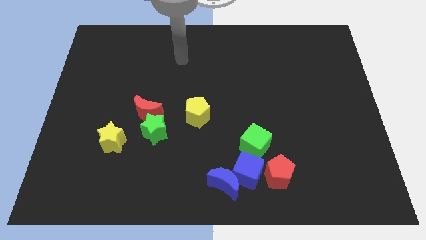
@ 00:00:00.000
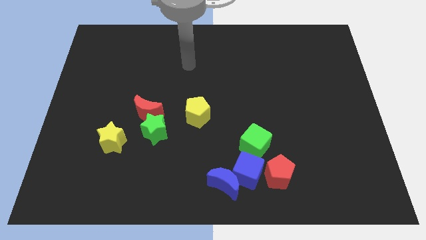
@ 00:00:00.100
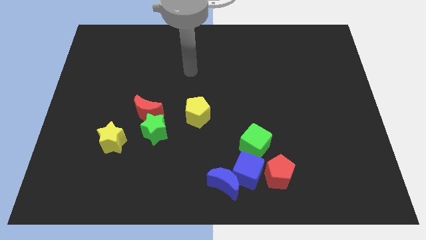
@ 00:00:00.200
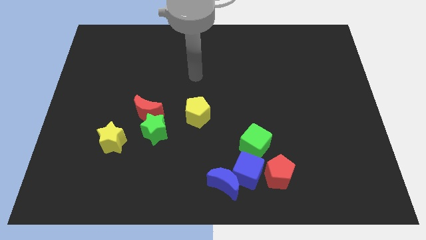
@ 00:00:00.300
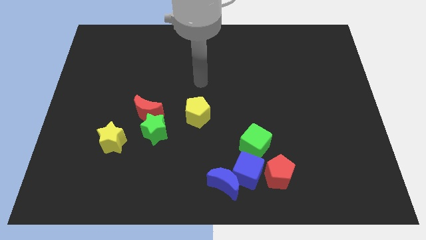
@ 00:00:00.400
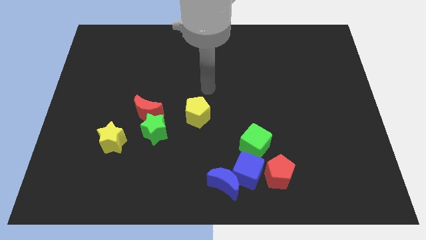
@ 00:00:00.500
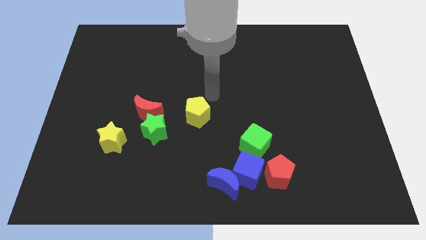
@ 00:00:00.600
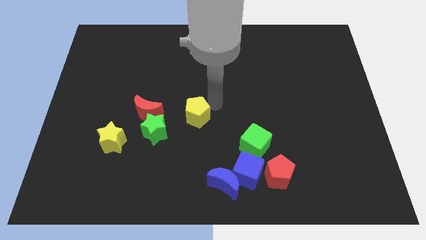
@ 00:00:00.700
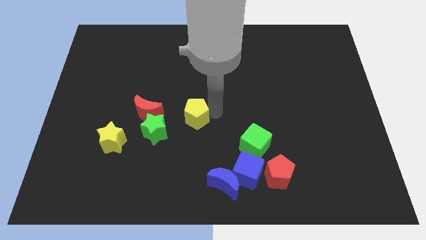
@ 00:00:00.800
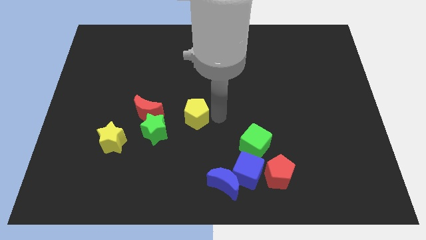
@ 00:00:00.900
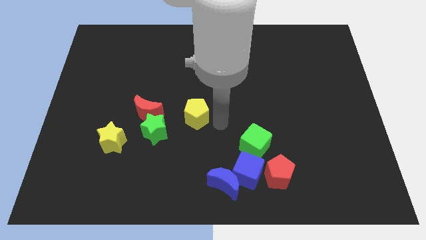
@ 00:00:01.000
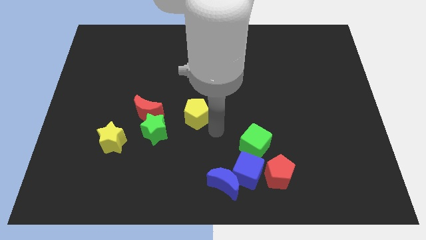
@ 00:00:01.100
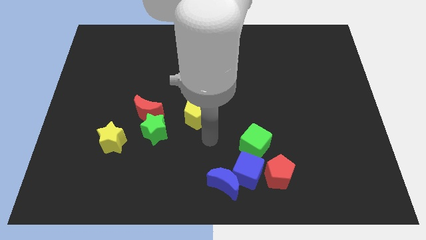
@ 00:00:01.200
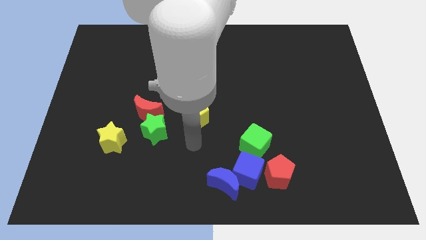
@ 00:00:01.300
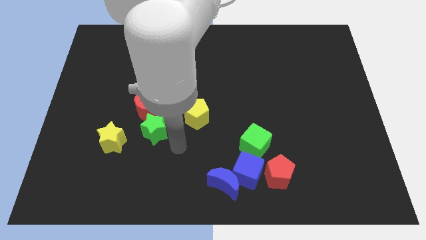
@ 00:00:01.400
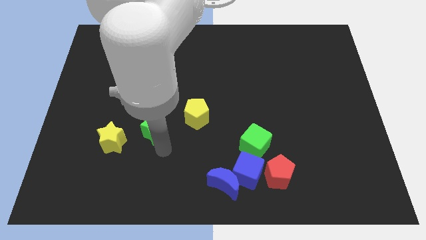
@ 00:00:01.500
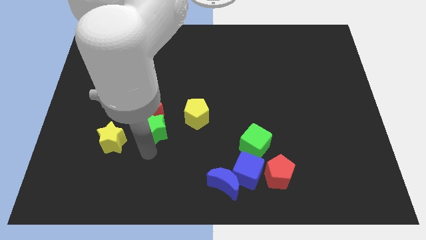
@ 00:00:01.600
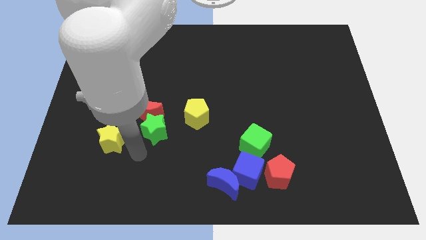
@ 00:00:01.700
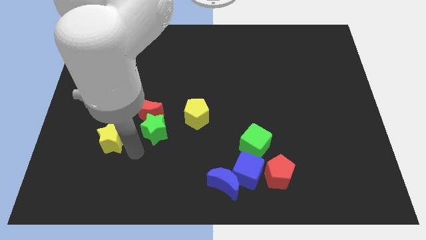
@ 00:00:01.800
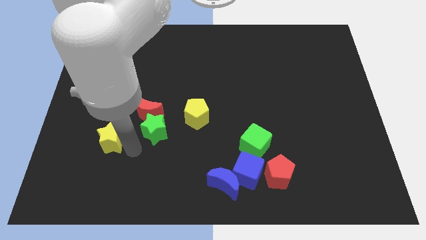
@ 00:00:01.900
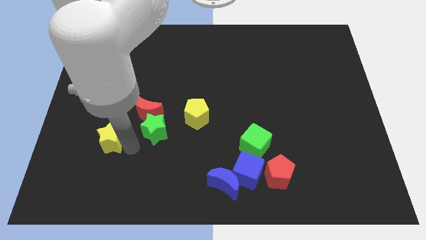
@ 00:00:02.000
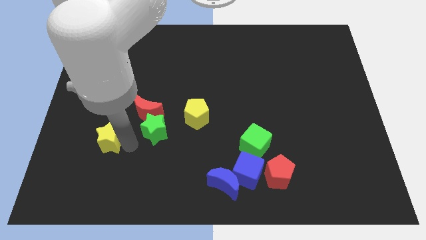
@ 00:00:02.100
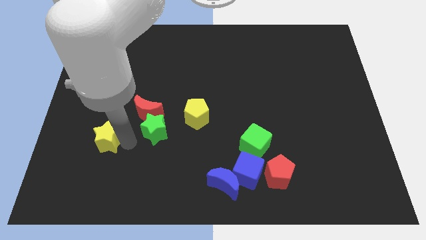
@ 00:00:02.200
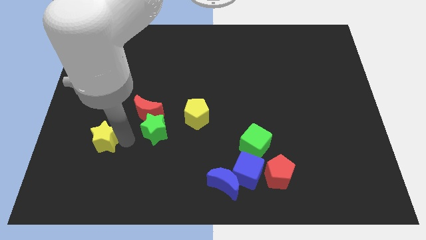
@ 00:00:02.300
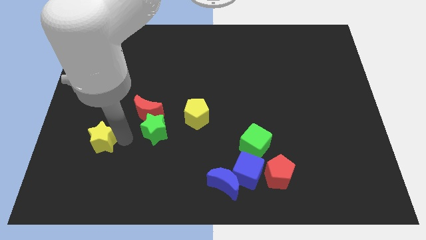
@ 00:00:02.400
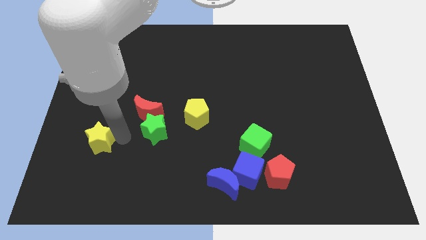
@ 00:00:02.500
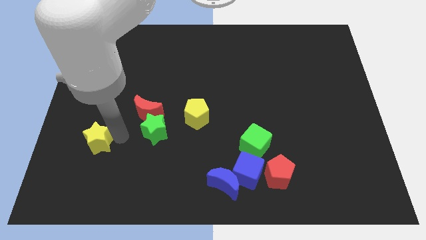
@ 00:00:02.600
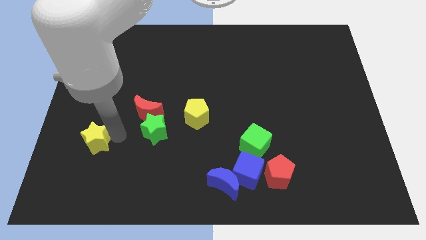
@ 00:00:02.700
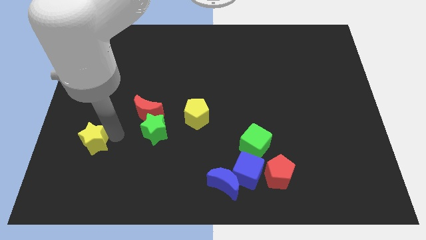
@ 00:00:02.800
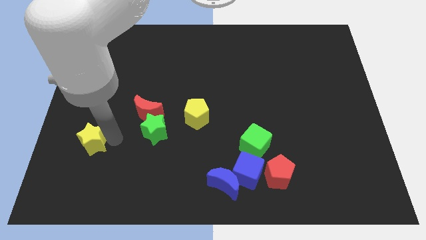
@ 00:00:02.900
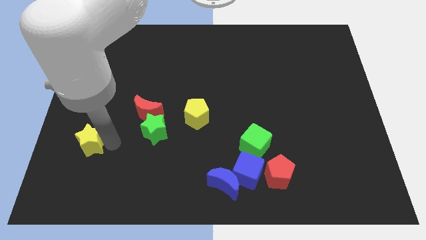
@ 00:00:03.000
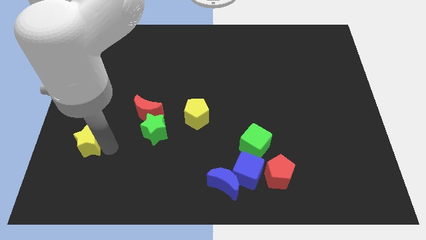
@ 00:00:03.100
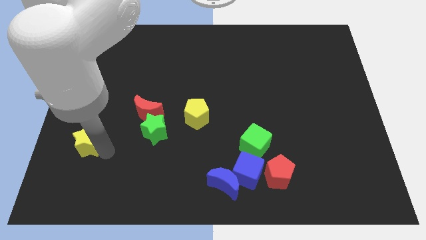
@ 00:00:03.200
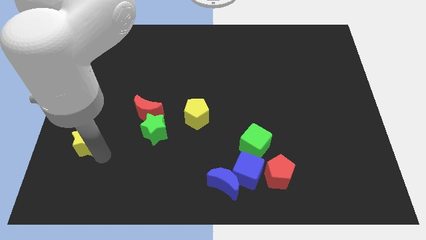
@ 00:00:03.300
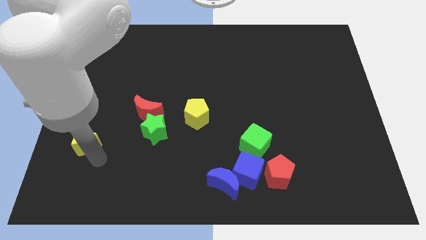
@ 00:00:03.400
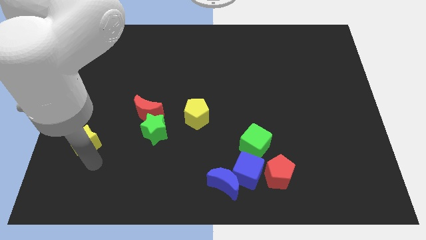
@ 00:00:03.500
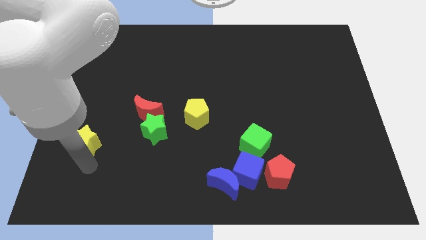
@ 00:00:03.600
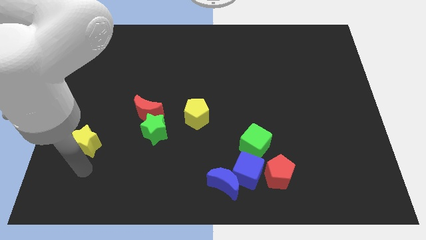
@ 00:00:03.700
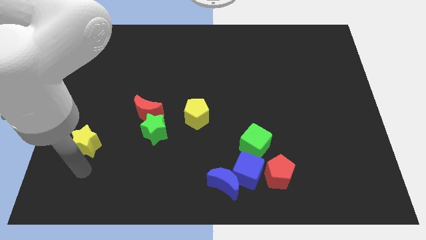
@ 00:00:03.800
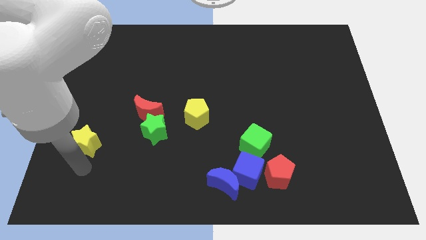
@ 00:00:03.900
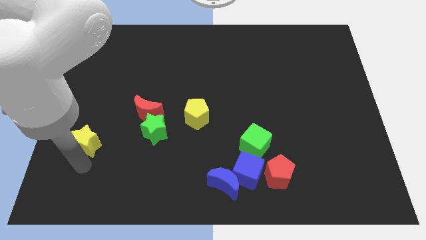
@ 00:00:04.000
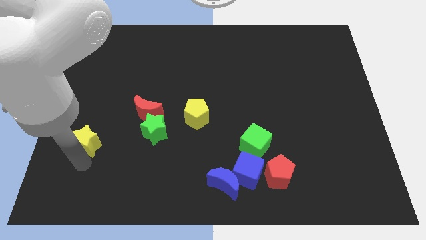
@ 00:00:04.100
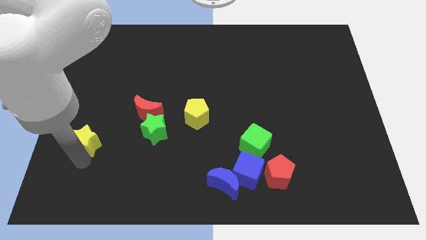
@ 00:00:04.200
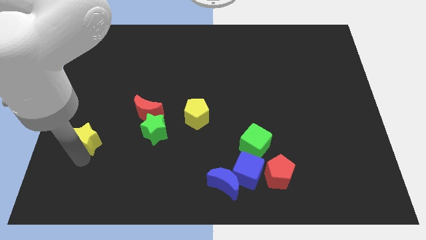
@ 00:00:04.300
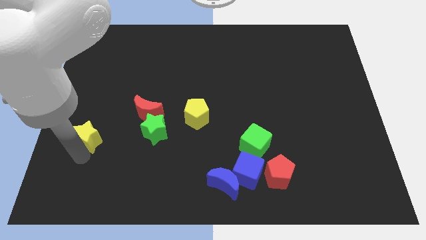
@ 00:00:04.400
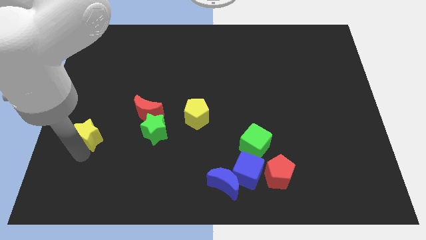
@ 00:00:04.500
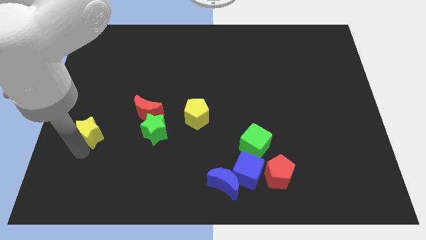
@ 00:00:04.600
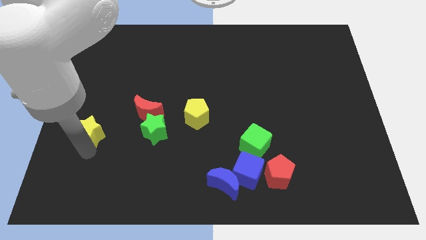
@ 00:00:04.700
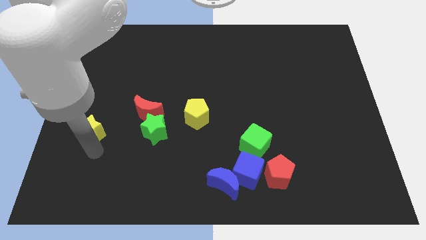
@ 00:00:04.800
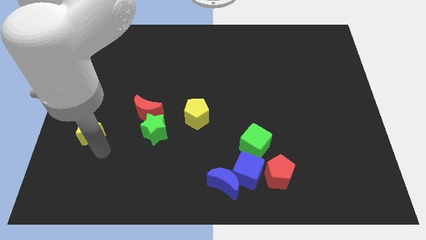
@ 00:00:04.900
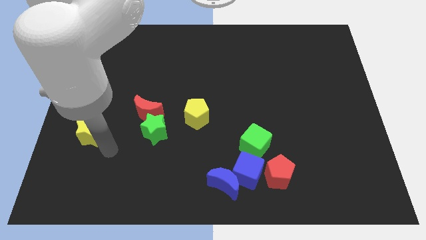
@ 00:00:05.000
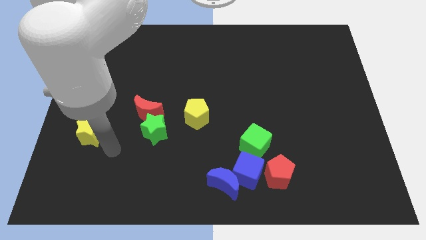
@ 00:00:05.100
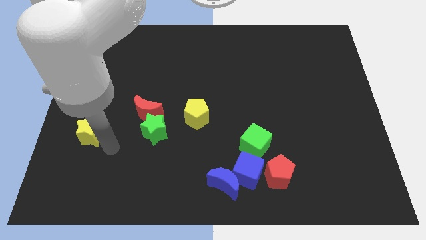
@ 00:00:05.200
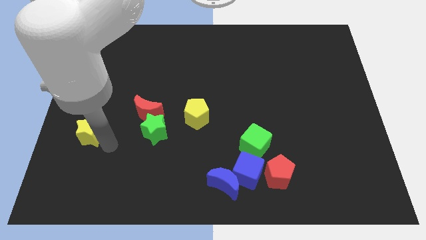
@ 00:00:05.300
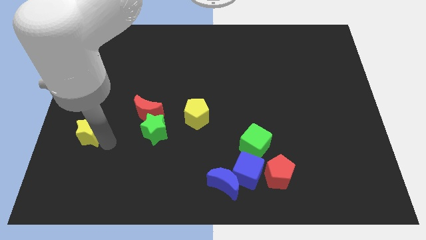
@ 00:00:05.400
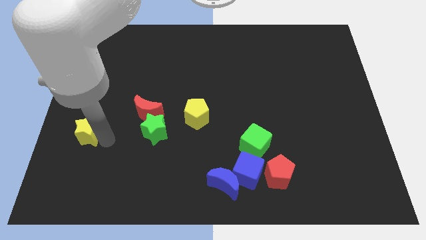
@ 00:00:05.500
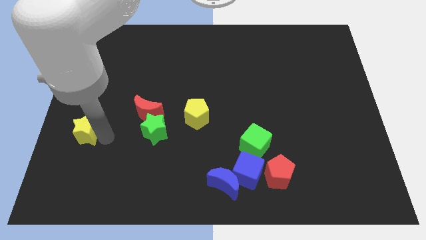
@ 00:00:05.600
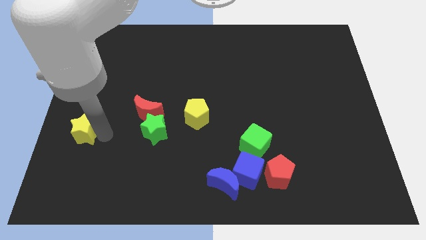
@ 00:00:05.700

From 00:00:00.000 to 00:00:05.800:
slide the yellow star to the left side of the board
